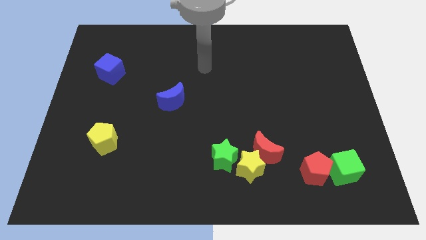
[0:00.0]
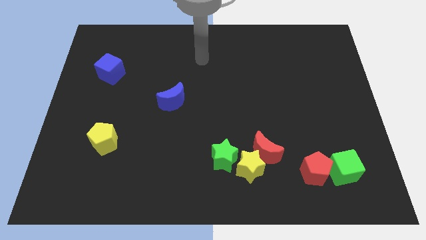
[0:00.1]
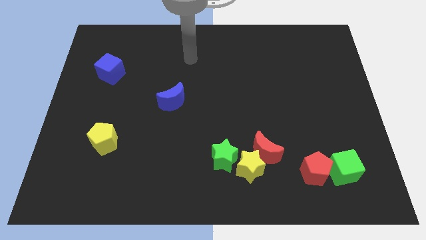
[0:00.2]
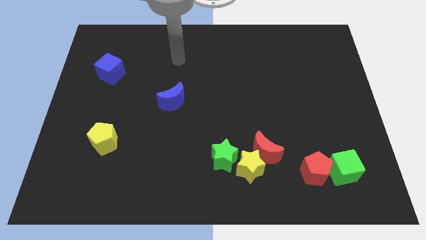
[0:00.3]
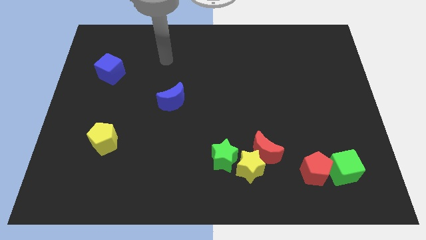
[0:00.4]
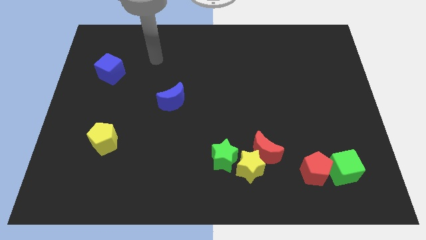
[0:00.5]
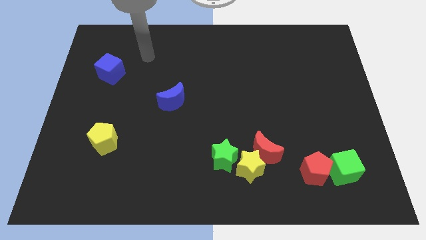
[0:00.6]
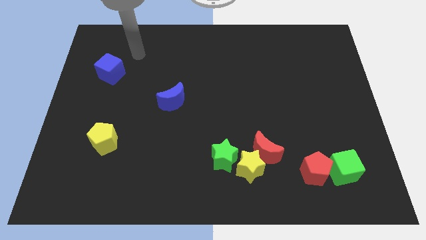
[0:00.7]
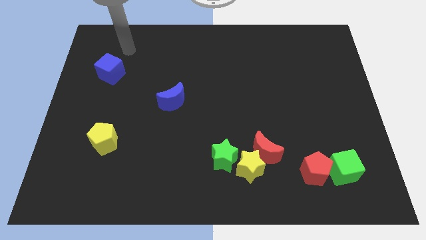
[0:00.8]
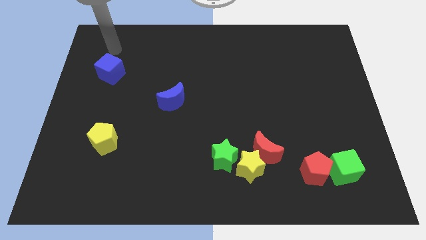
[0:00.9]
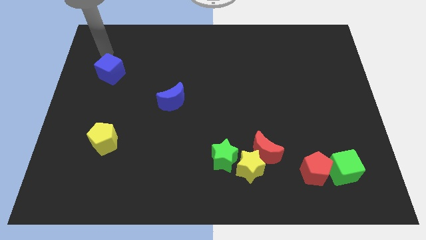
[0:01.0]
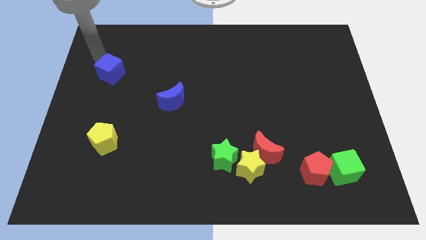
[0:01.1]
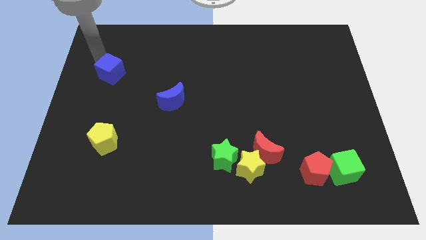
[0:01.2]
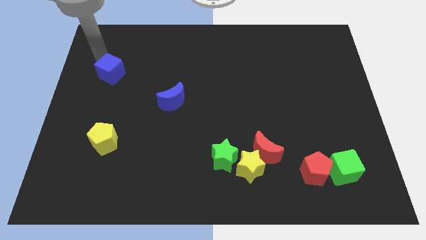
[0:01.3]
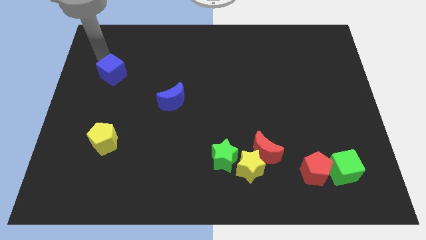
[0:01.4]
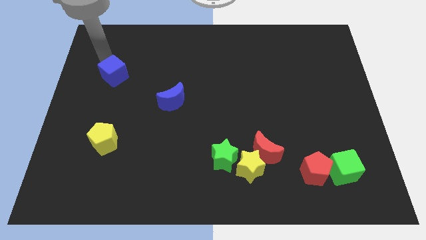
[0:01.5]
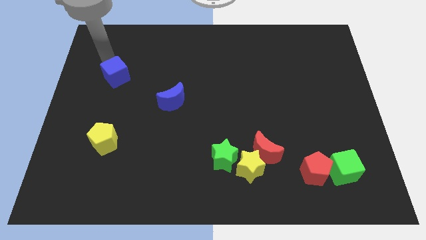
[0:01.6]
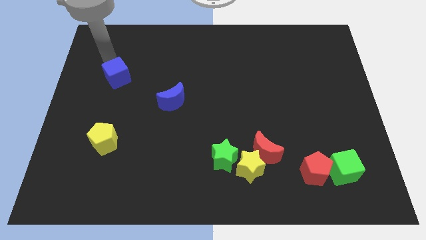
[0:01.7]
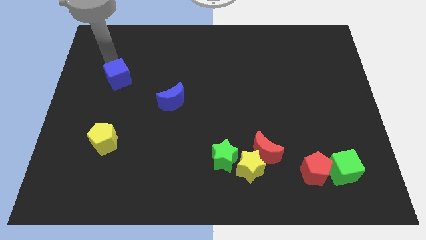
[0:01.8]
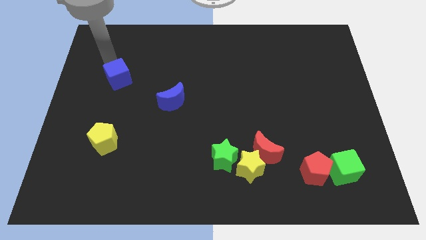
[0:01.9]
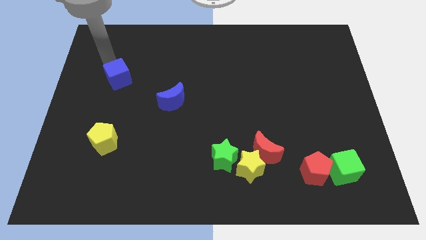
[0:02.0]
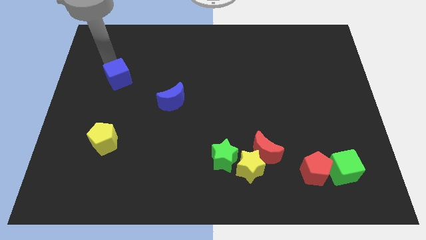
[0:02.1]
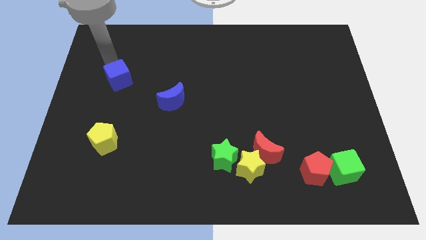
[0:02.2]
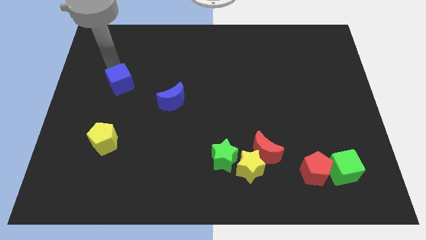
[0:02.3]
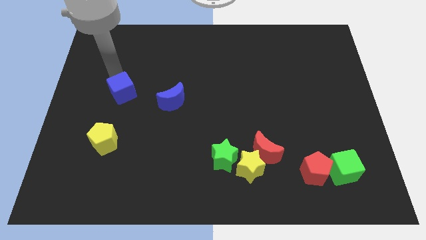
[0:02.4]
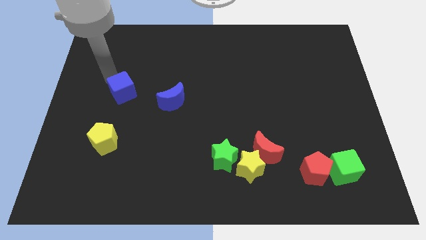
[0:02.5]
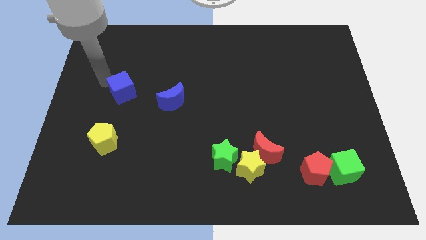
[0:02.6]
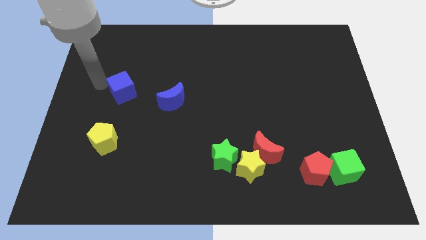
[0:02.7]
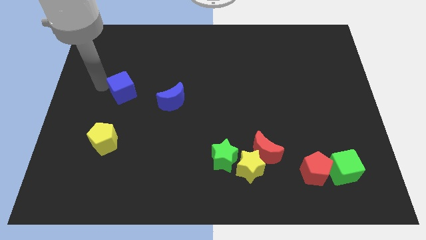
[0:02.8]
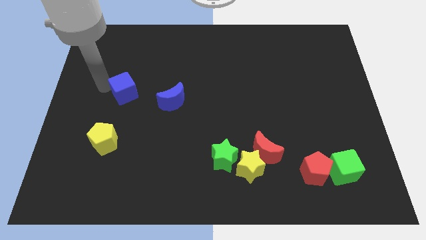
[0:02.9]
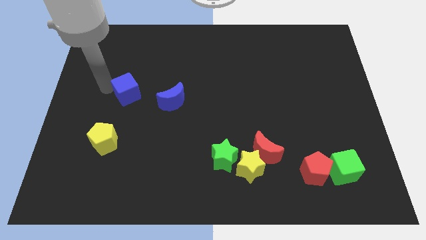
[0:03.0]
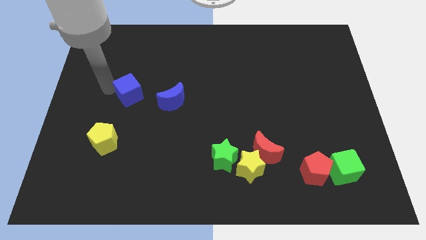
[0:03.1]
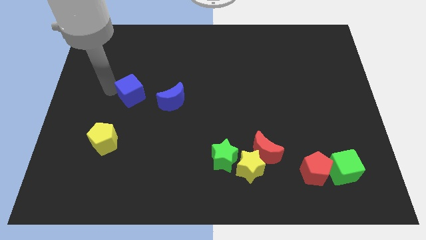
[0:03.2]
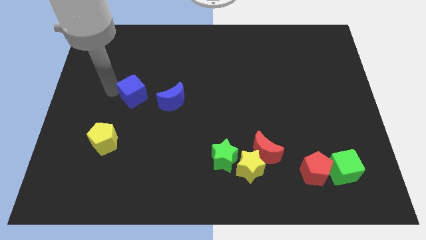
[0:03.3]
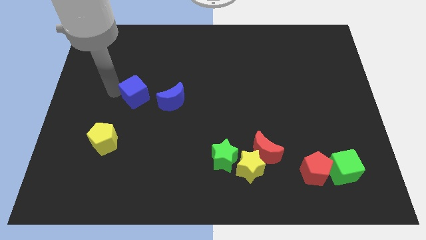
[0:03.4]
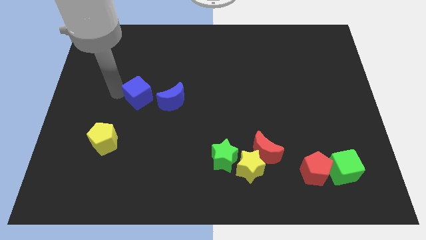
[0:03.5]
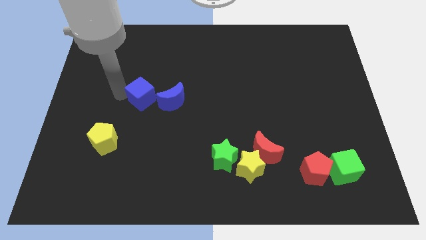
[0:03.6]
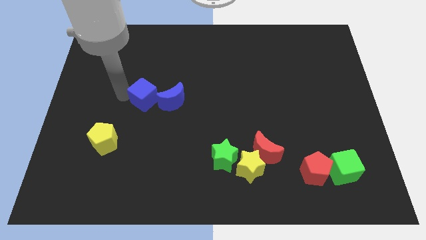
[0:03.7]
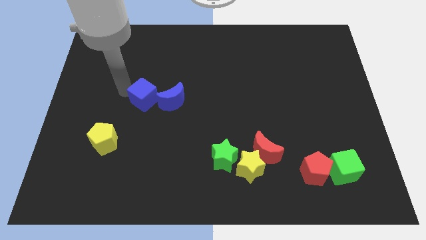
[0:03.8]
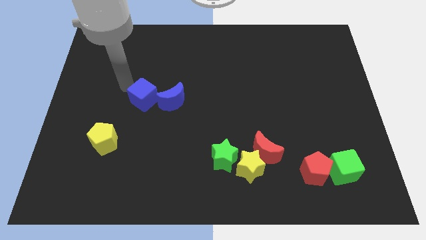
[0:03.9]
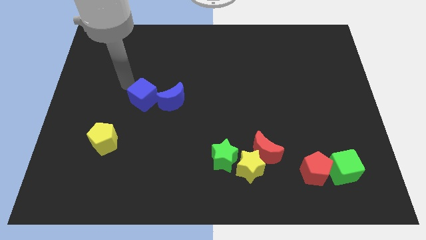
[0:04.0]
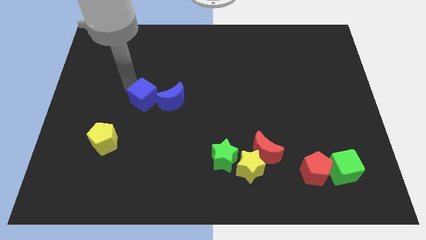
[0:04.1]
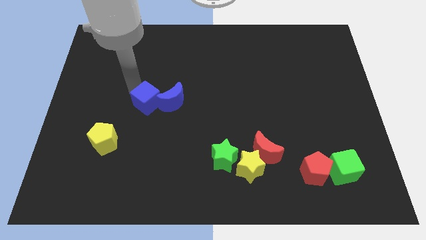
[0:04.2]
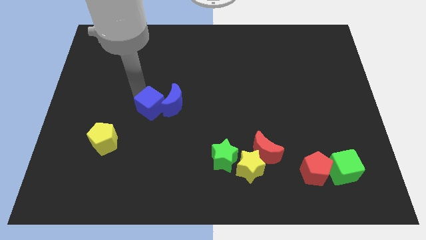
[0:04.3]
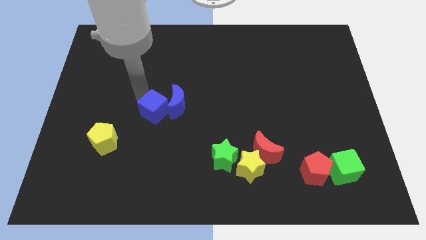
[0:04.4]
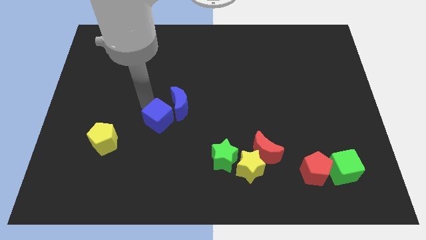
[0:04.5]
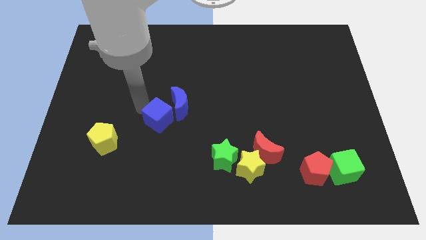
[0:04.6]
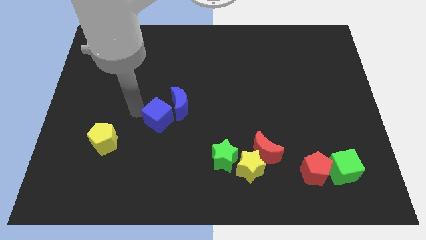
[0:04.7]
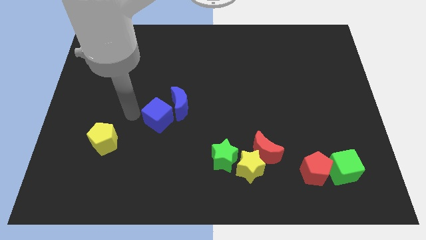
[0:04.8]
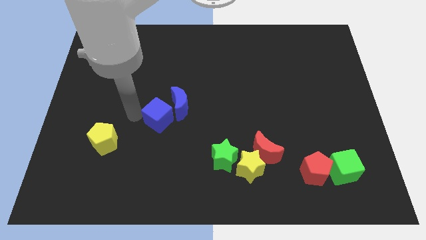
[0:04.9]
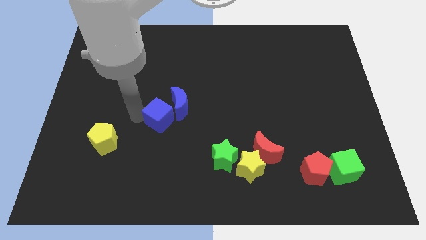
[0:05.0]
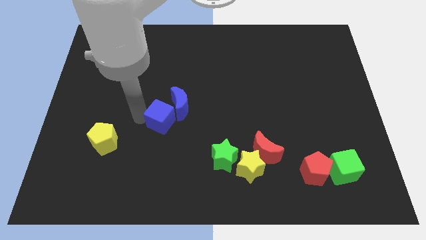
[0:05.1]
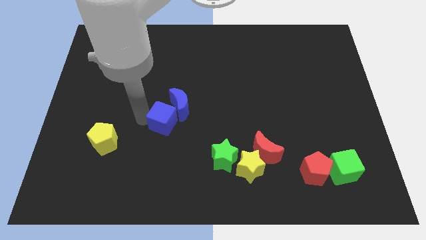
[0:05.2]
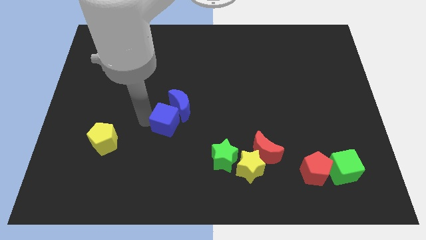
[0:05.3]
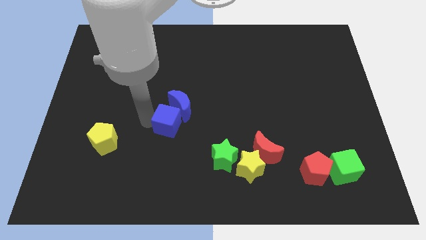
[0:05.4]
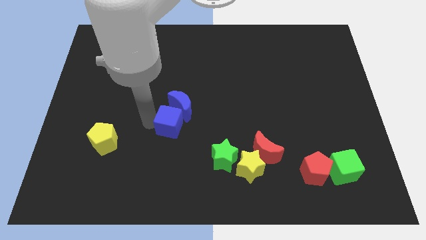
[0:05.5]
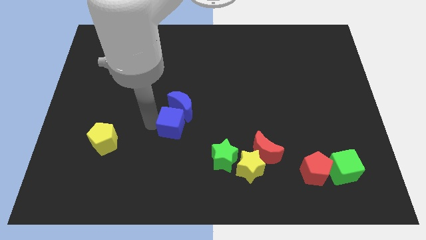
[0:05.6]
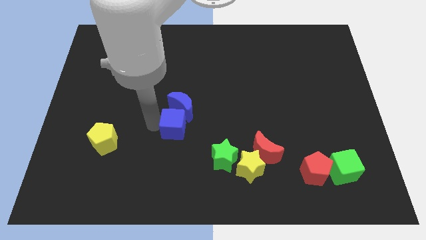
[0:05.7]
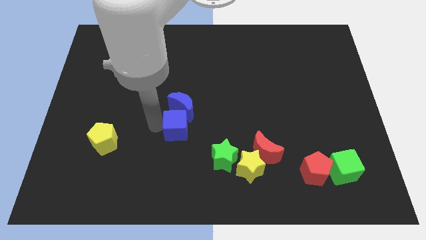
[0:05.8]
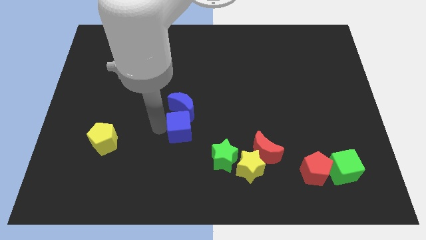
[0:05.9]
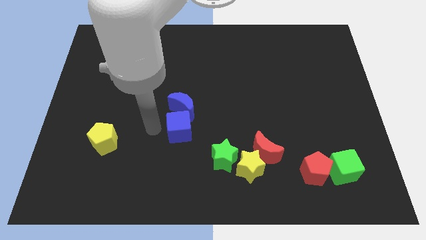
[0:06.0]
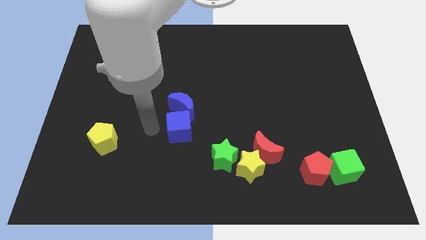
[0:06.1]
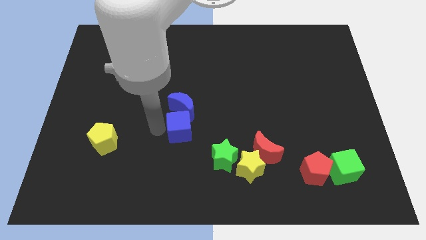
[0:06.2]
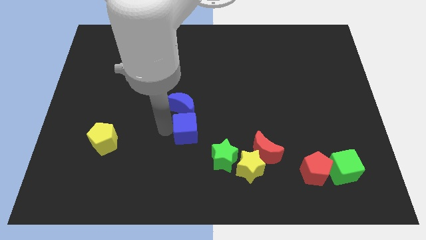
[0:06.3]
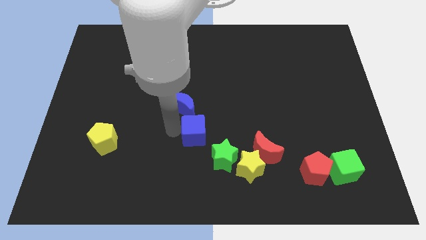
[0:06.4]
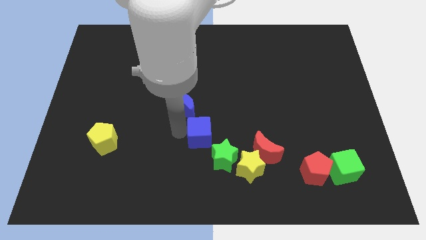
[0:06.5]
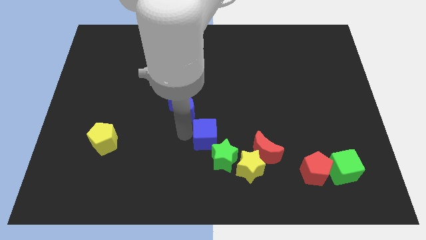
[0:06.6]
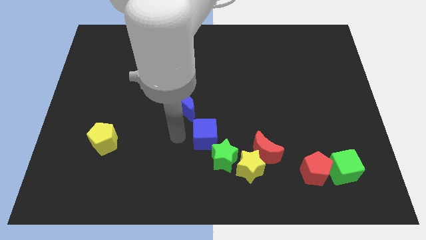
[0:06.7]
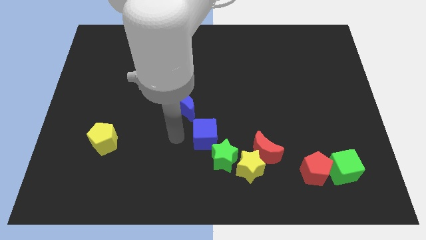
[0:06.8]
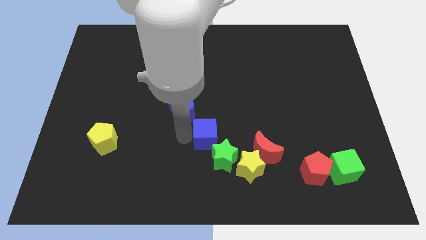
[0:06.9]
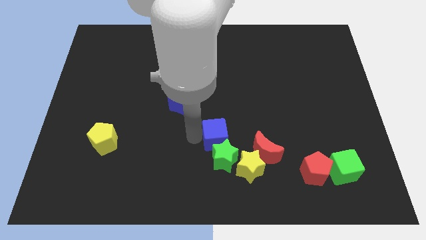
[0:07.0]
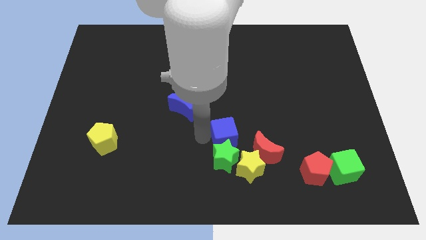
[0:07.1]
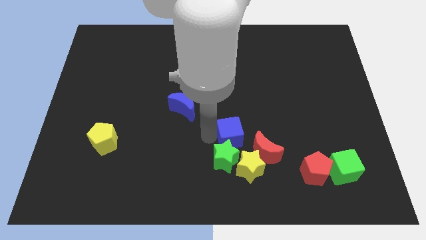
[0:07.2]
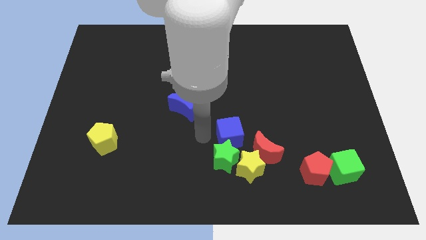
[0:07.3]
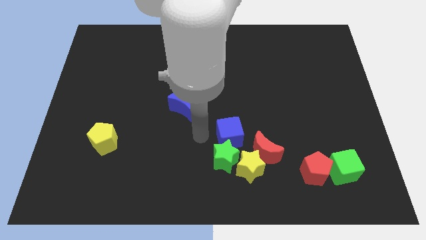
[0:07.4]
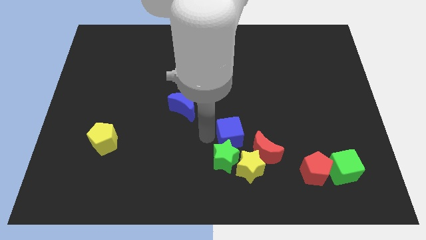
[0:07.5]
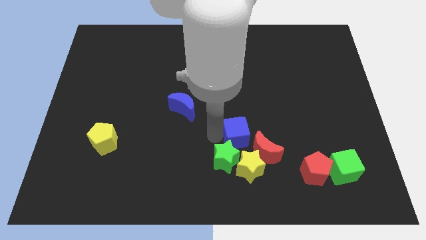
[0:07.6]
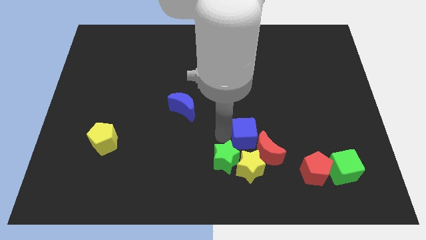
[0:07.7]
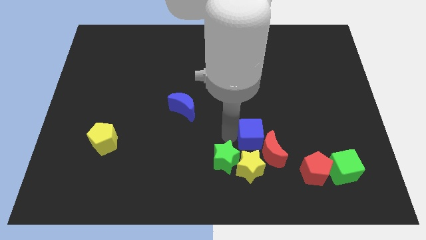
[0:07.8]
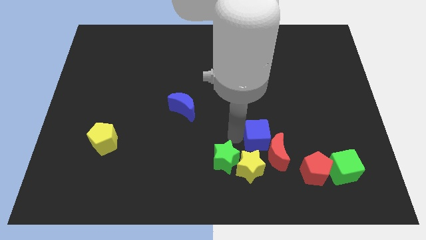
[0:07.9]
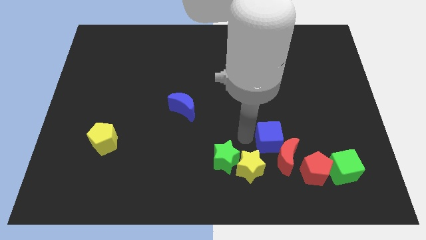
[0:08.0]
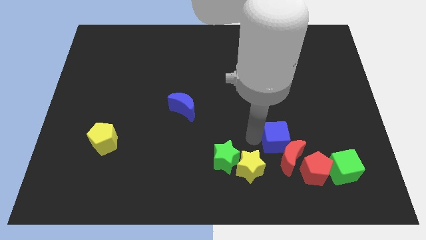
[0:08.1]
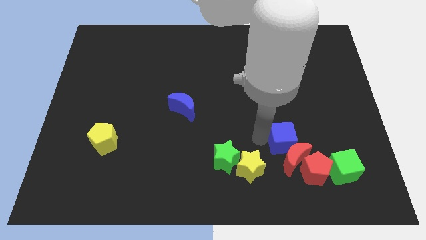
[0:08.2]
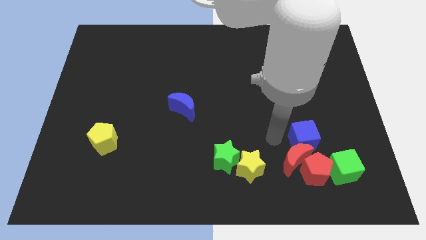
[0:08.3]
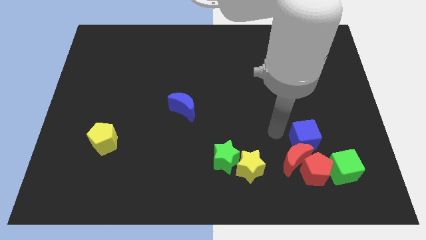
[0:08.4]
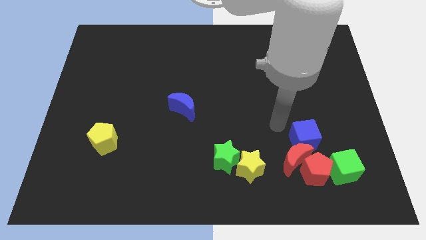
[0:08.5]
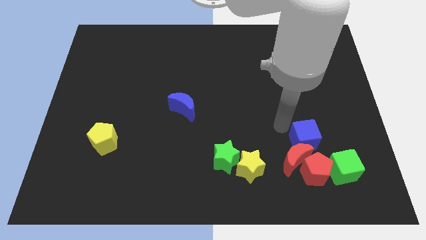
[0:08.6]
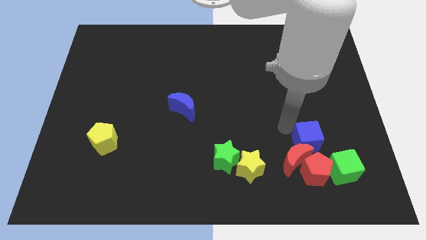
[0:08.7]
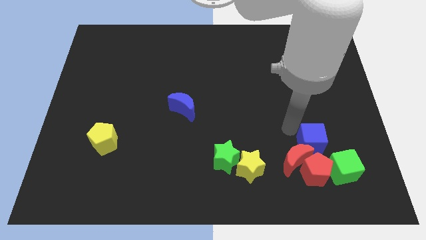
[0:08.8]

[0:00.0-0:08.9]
put the blue cube to the right of the red moon
